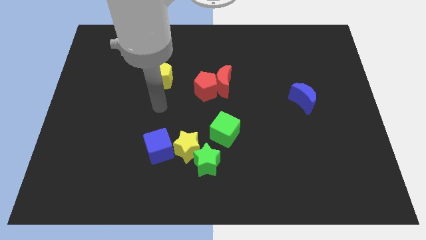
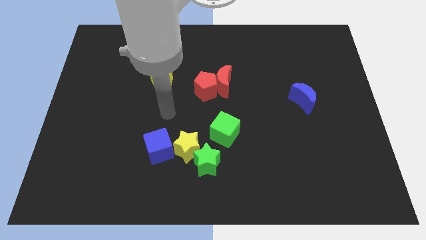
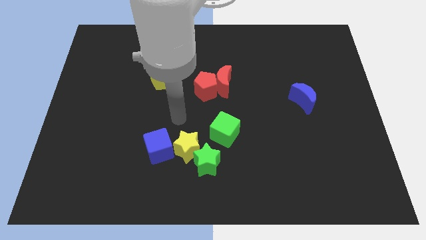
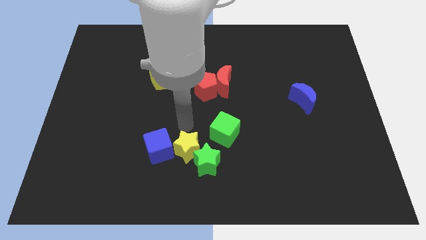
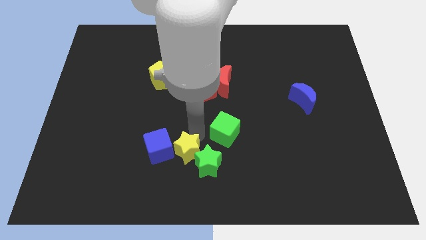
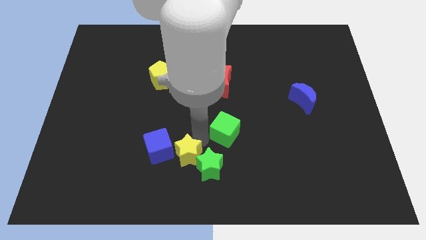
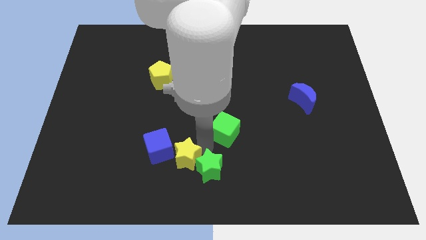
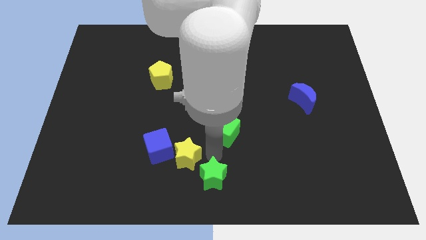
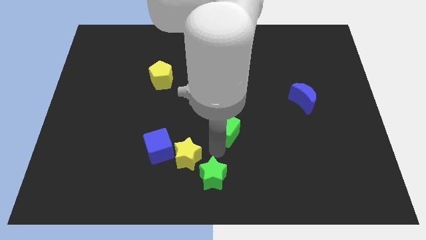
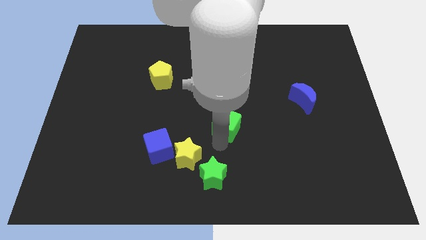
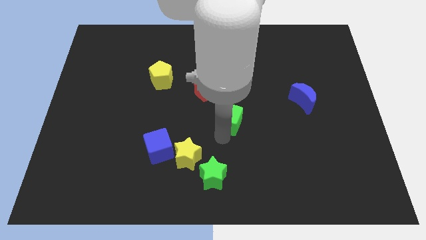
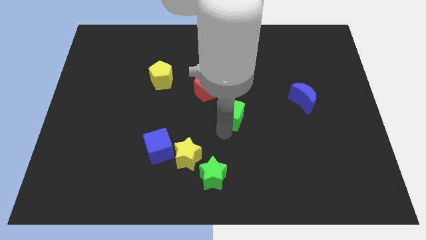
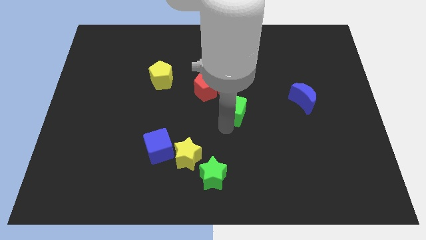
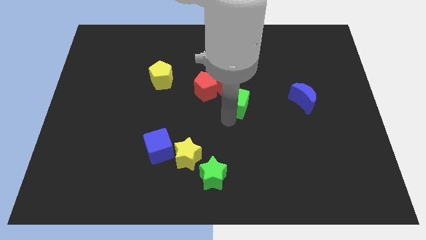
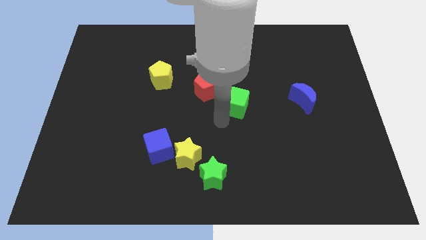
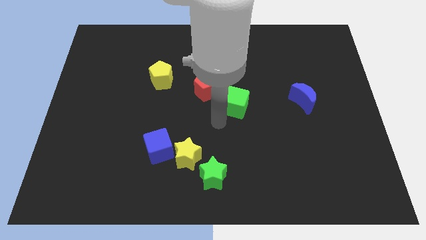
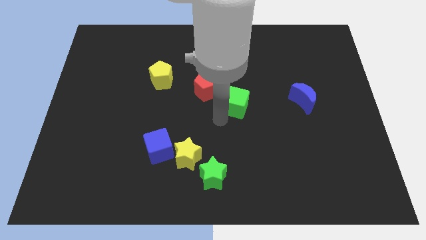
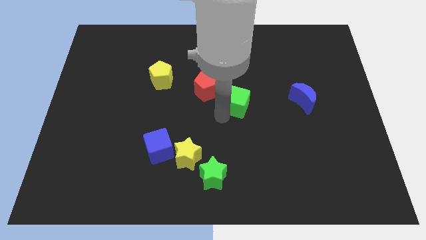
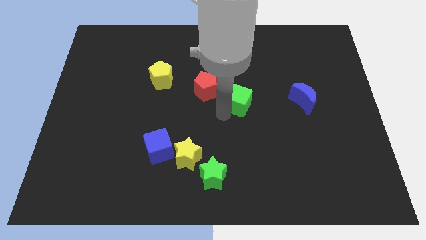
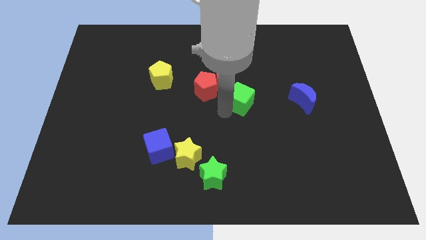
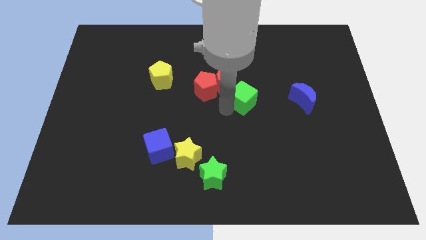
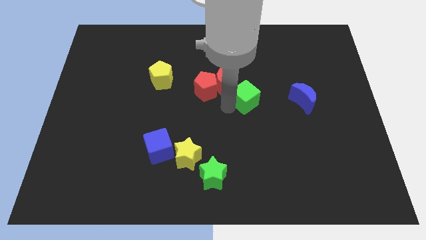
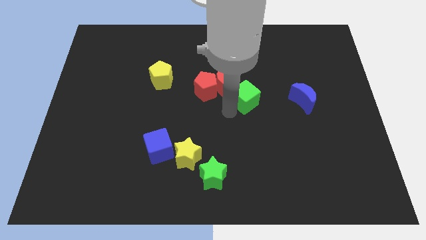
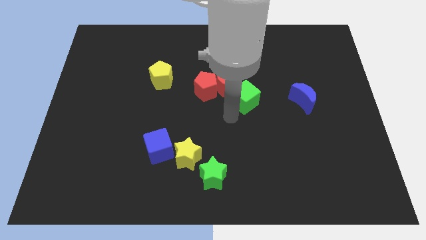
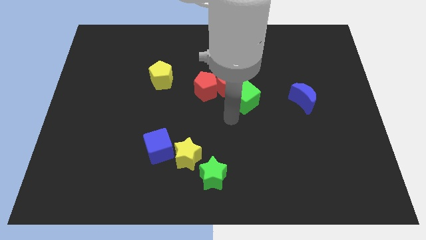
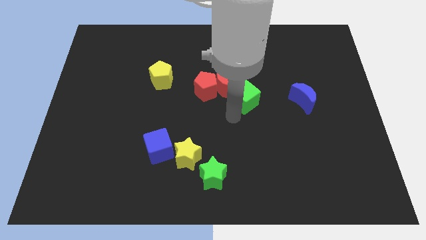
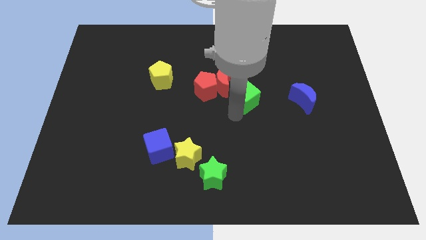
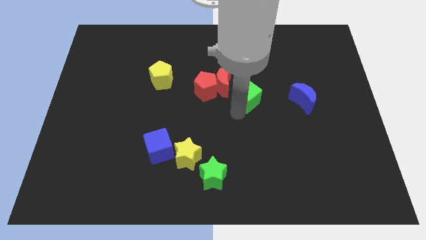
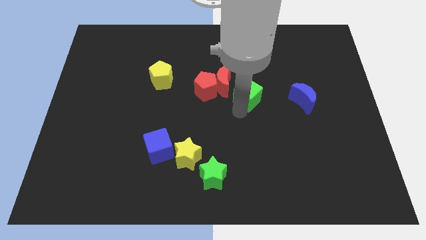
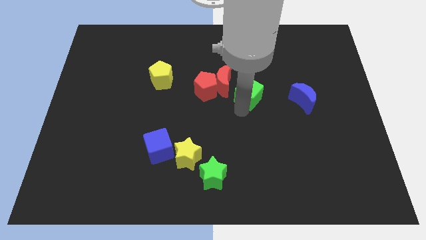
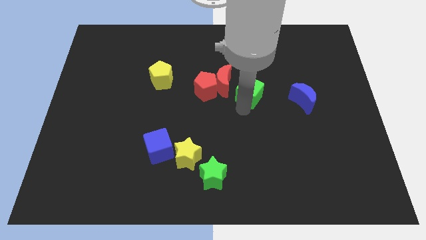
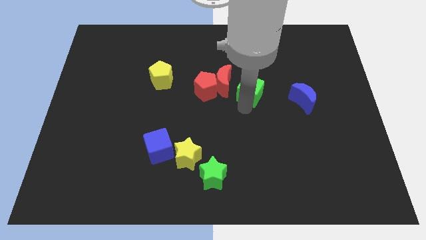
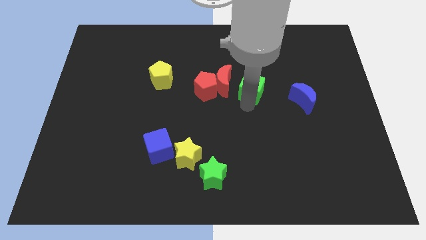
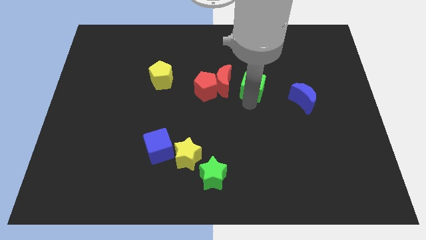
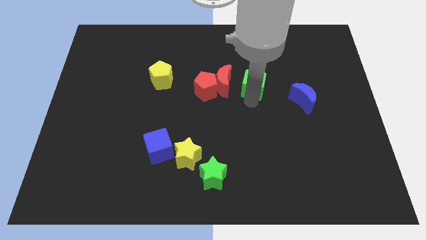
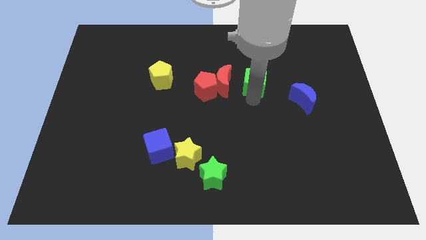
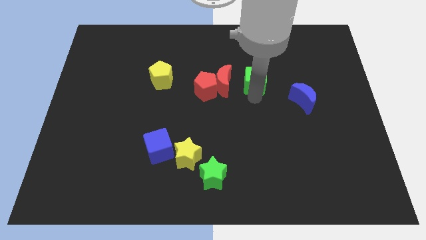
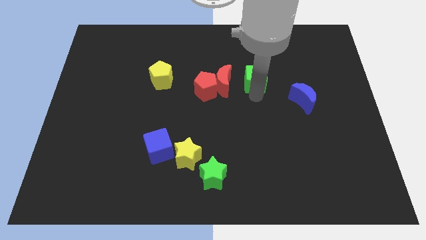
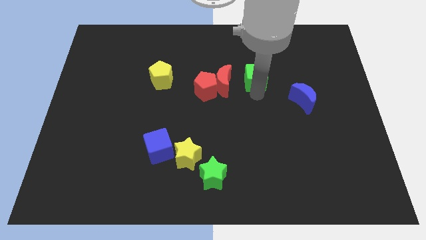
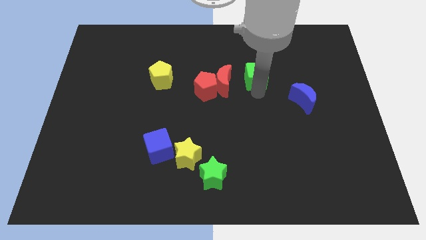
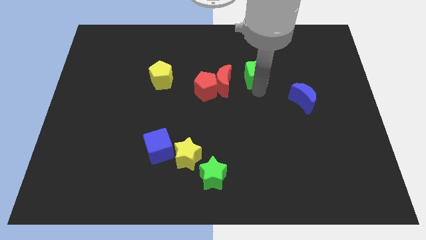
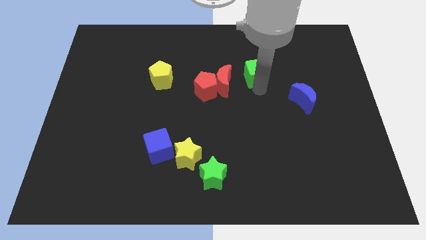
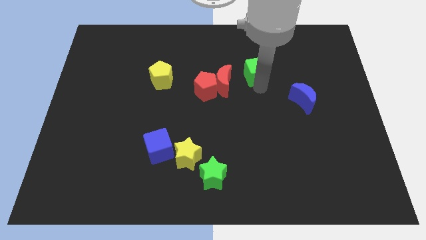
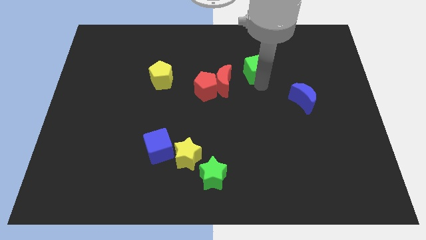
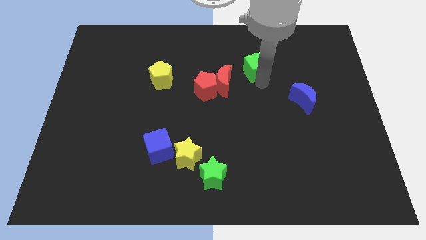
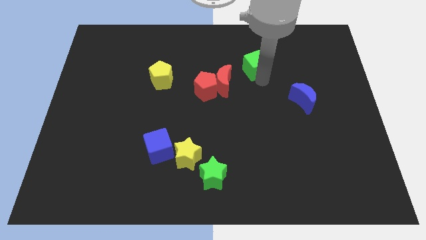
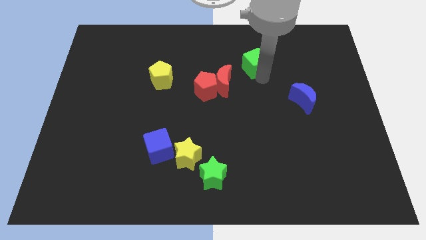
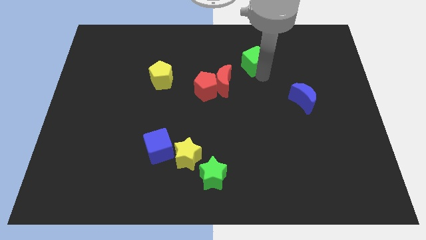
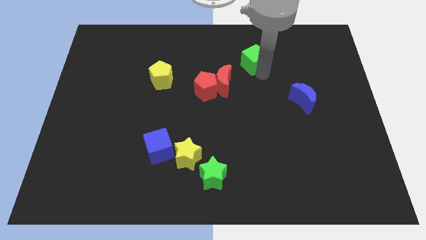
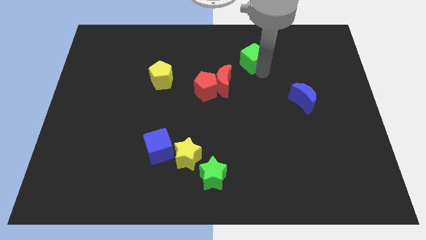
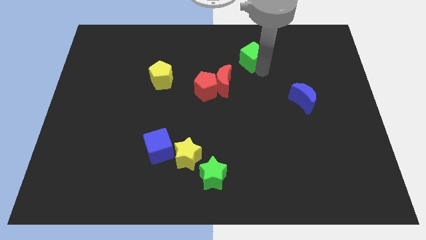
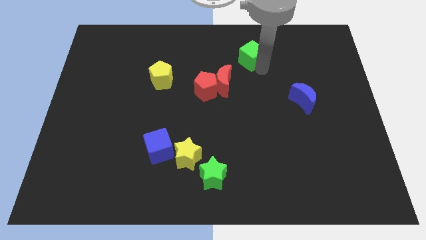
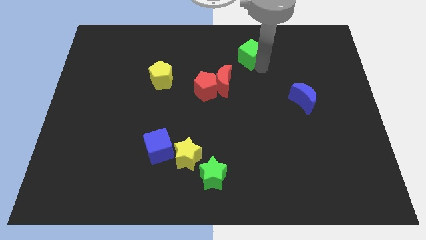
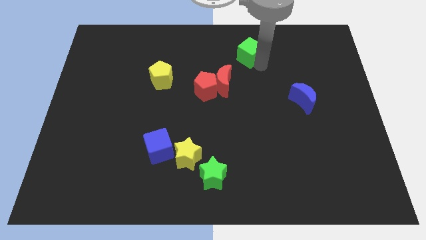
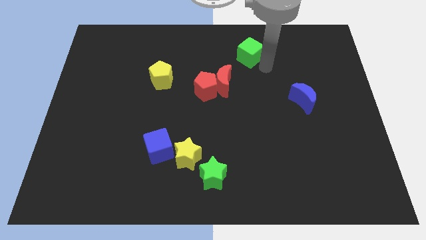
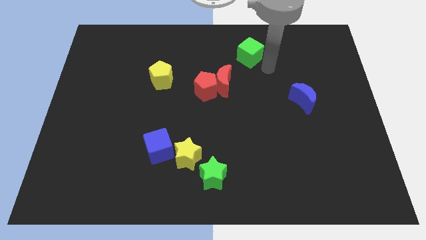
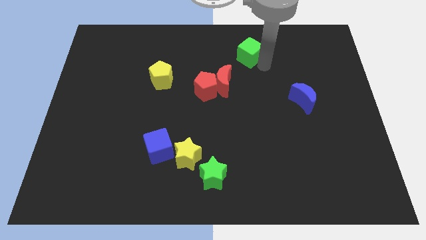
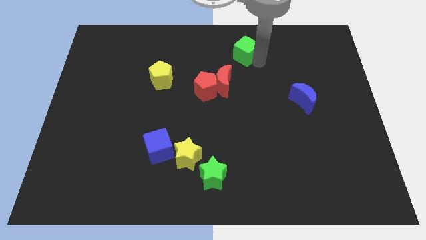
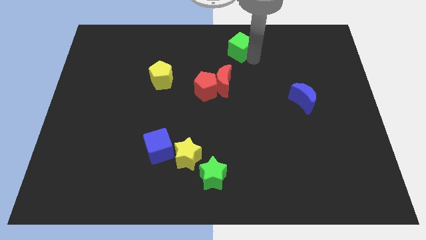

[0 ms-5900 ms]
move the green cube to the top side
